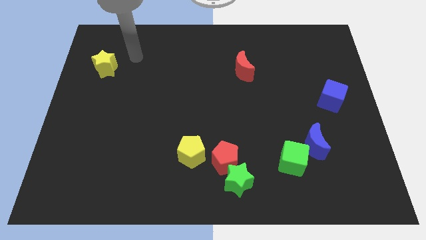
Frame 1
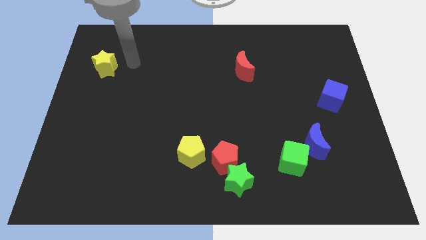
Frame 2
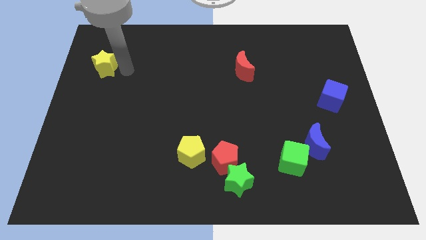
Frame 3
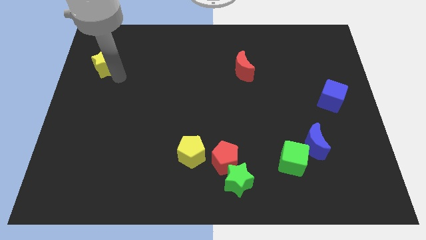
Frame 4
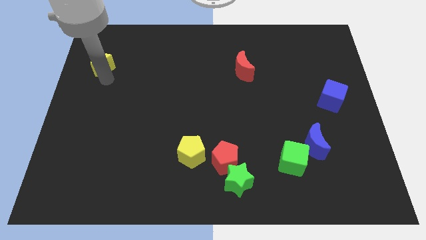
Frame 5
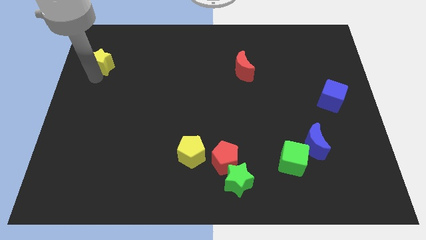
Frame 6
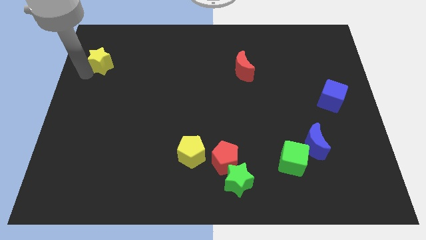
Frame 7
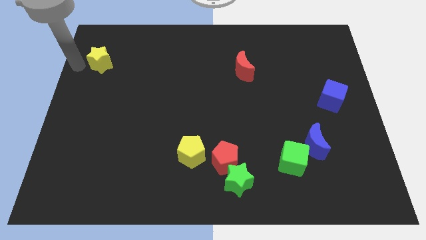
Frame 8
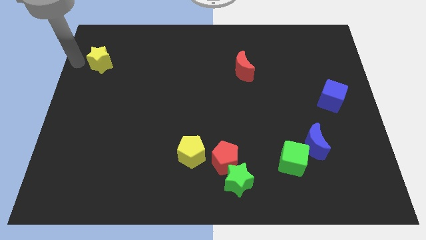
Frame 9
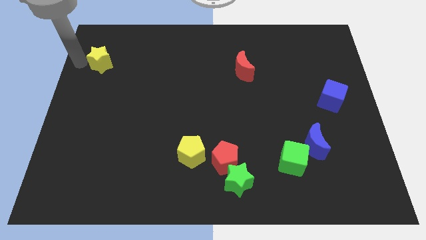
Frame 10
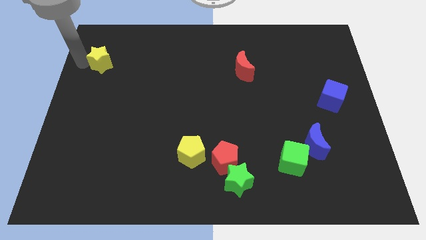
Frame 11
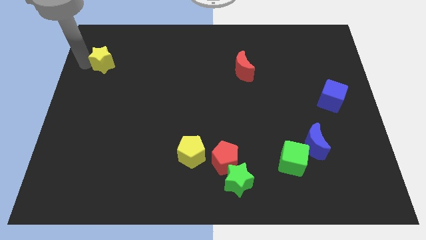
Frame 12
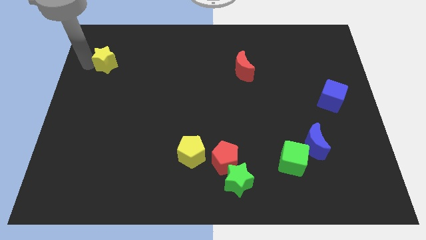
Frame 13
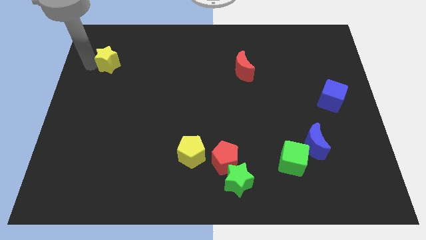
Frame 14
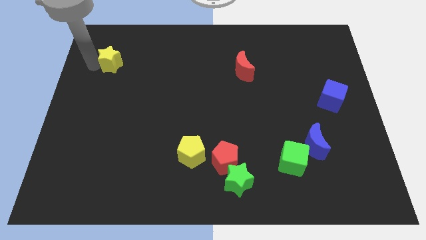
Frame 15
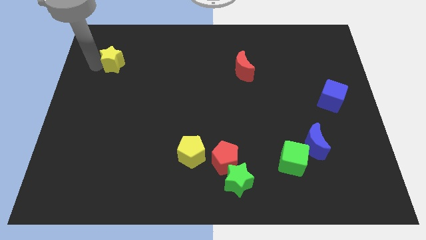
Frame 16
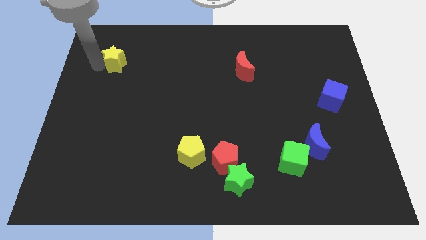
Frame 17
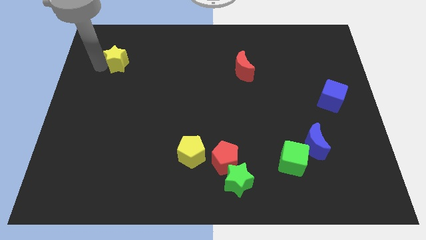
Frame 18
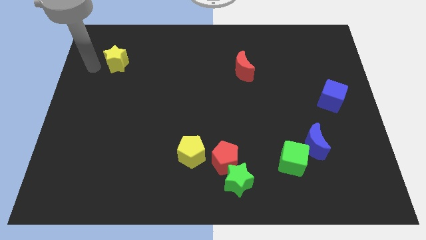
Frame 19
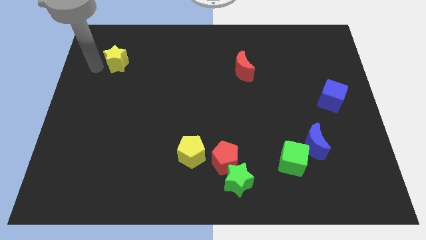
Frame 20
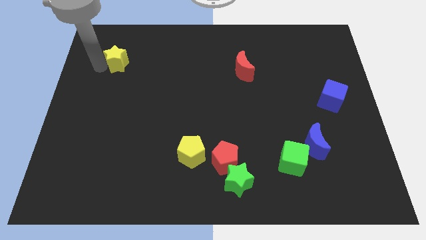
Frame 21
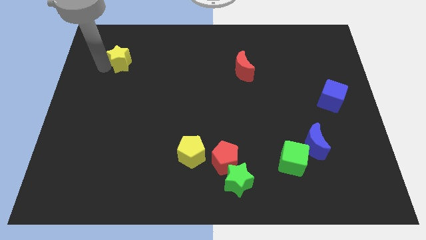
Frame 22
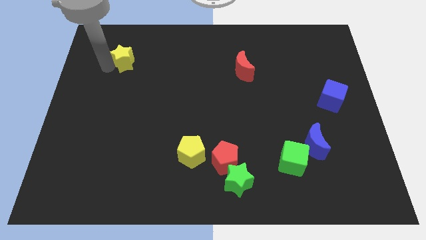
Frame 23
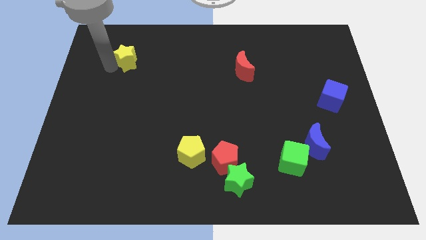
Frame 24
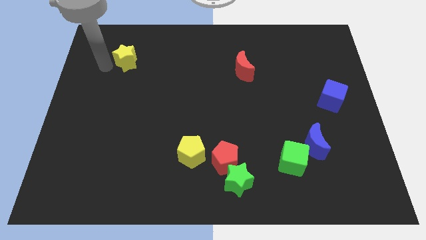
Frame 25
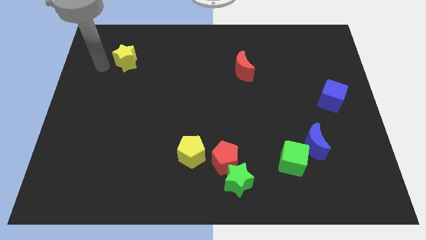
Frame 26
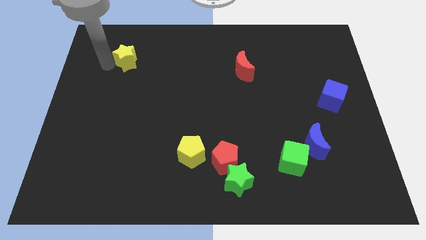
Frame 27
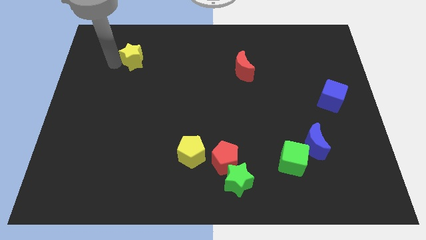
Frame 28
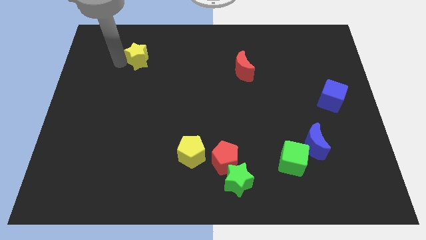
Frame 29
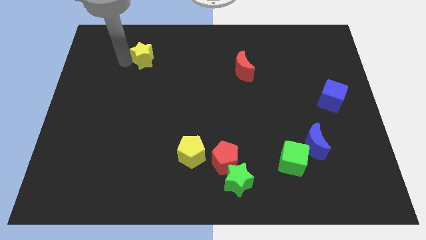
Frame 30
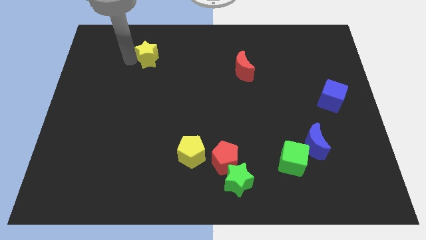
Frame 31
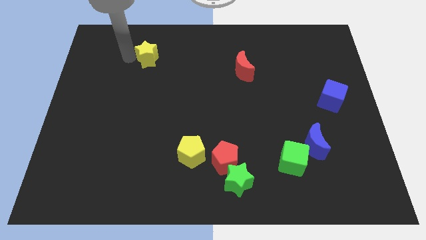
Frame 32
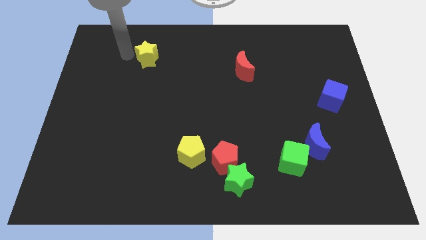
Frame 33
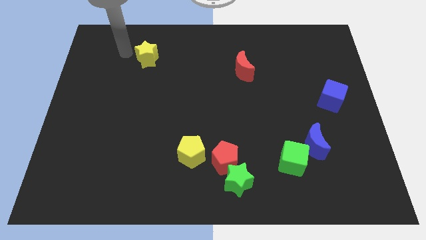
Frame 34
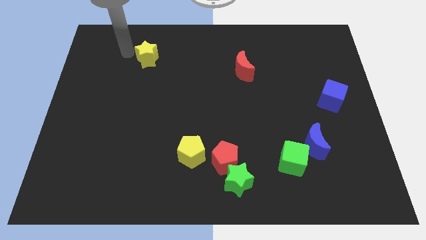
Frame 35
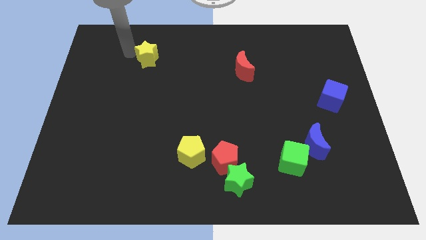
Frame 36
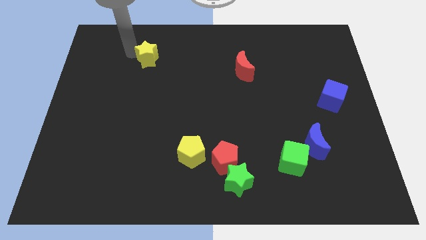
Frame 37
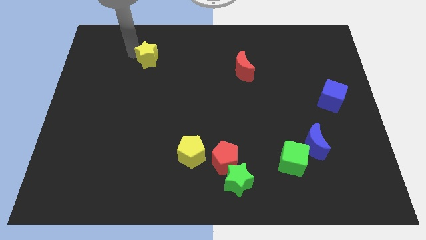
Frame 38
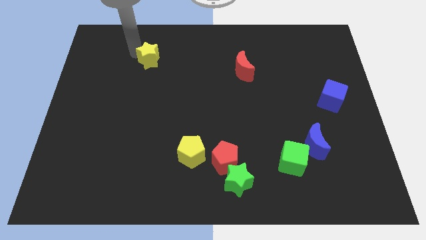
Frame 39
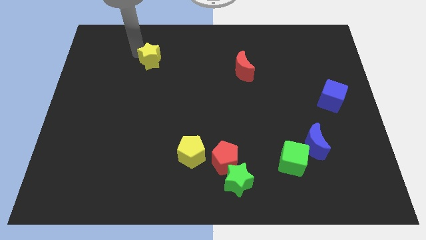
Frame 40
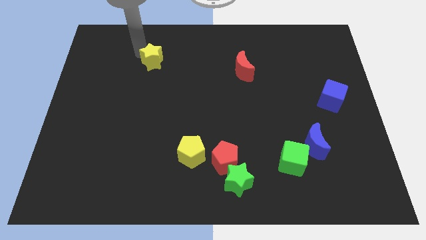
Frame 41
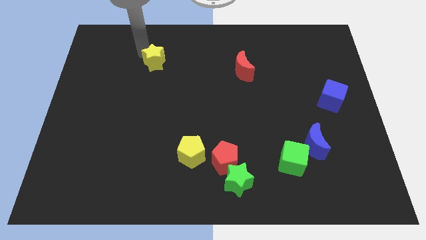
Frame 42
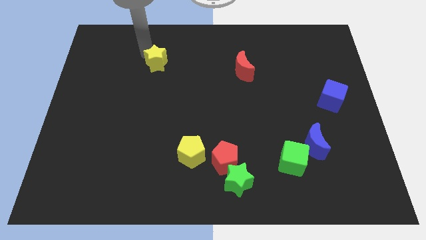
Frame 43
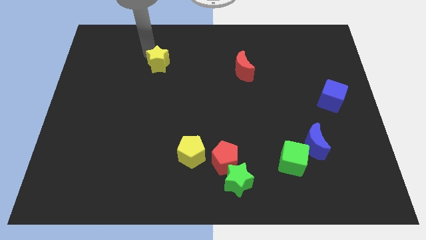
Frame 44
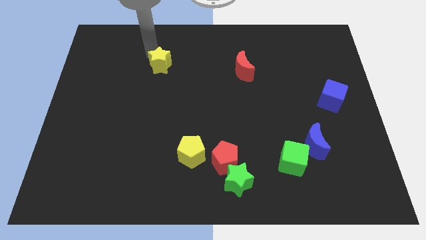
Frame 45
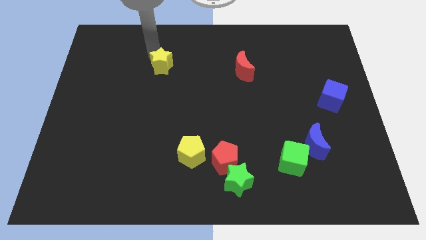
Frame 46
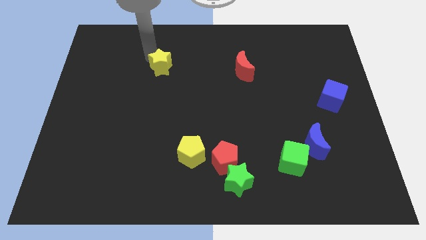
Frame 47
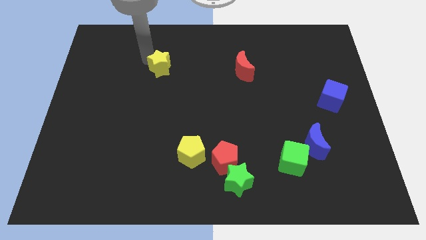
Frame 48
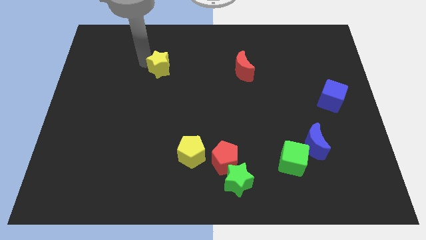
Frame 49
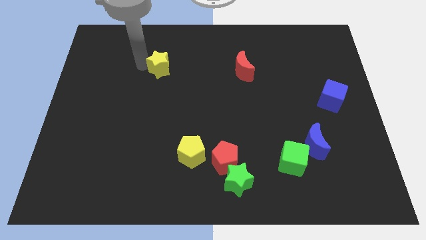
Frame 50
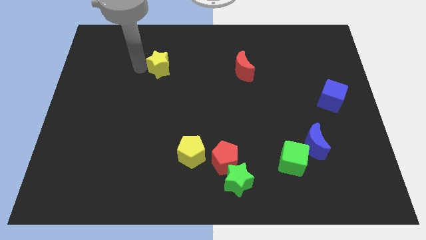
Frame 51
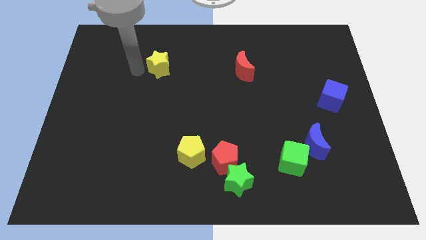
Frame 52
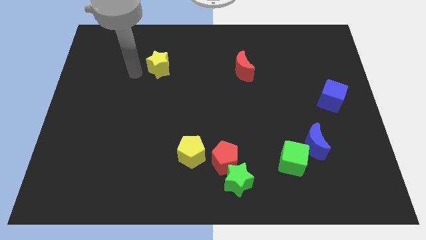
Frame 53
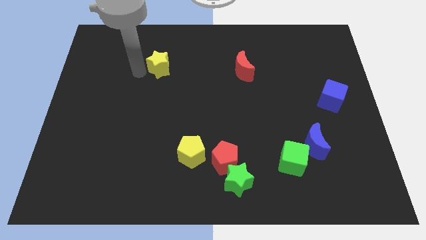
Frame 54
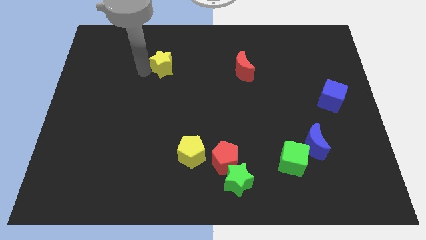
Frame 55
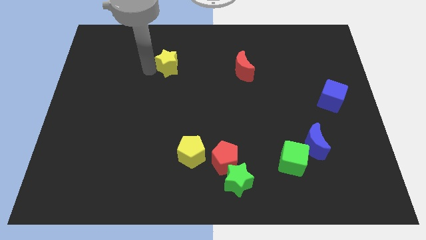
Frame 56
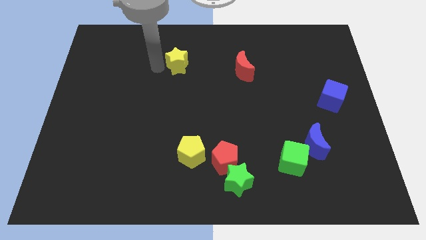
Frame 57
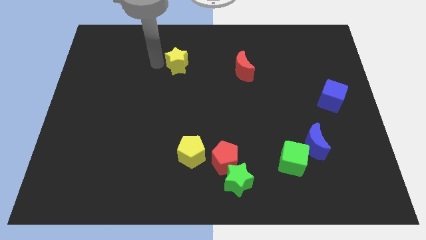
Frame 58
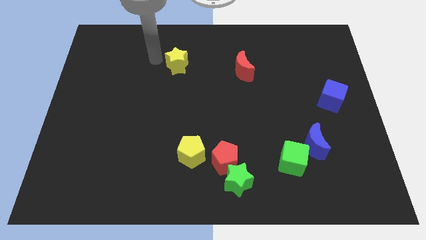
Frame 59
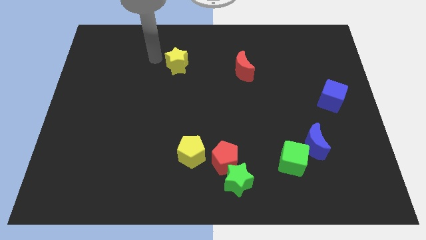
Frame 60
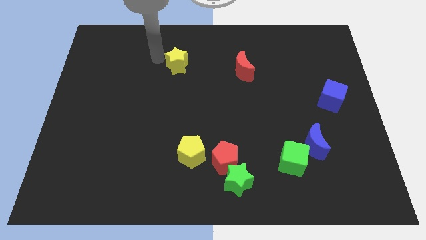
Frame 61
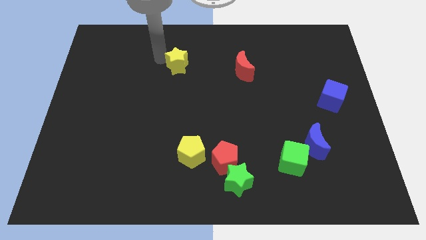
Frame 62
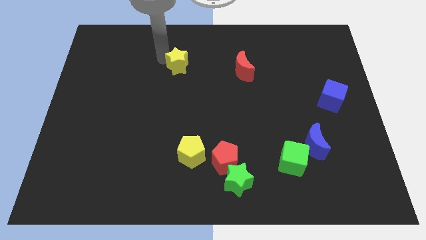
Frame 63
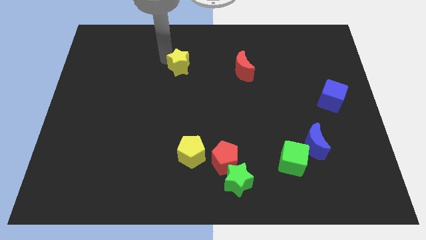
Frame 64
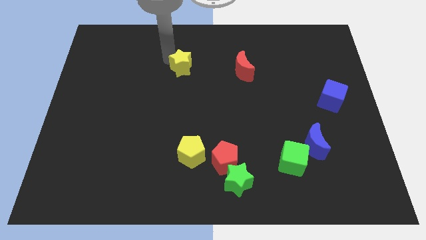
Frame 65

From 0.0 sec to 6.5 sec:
slide the yellow star just left of the red moon
